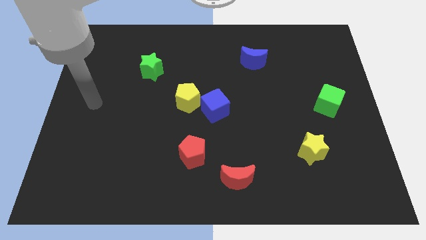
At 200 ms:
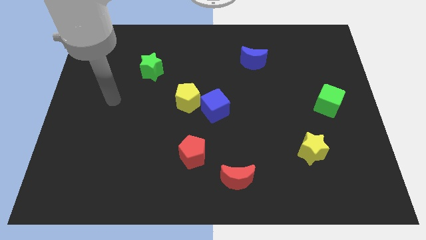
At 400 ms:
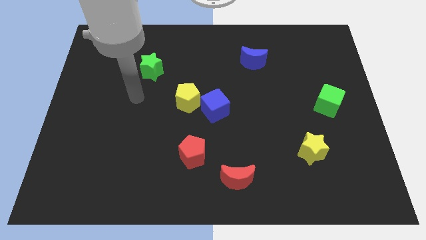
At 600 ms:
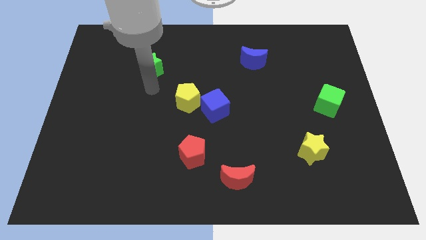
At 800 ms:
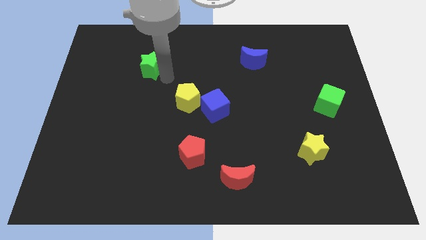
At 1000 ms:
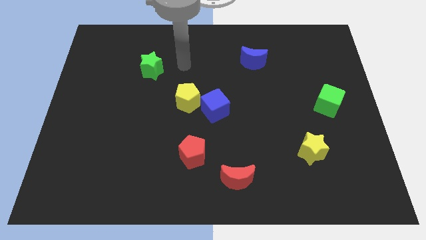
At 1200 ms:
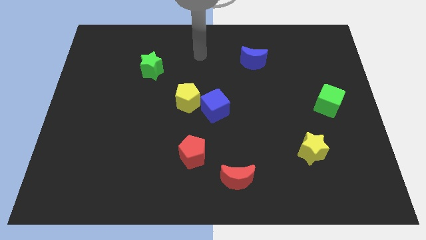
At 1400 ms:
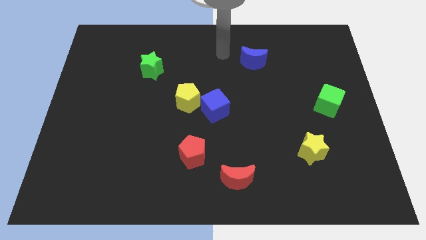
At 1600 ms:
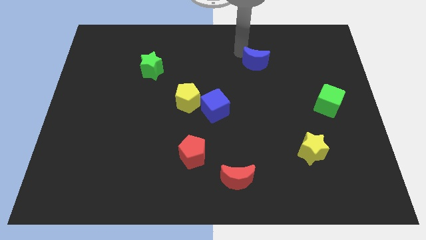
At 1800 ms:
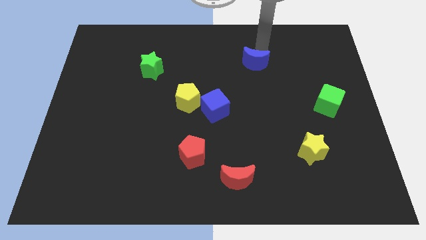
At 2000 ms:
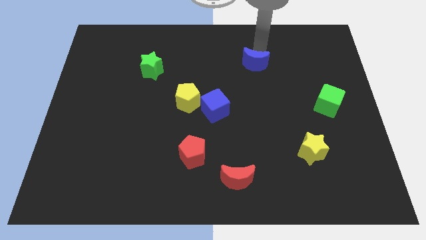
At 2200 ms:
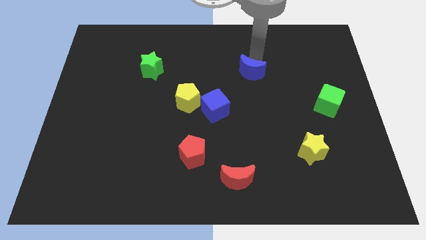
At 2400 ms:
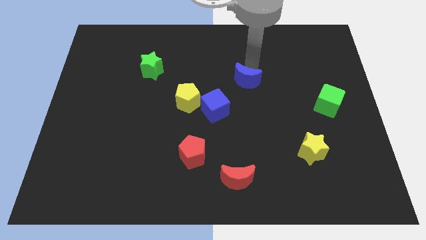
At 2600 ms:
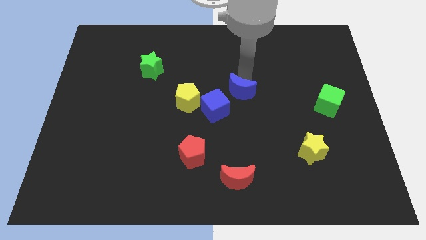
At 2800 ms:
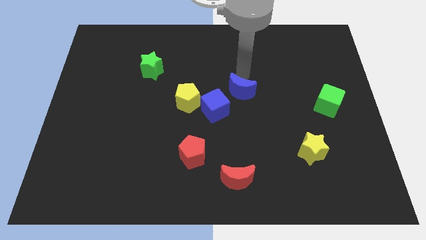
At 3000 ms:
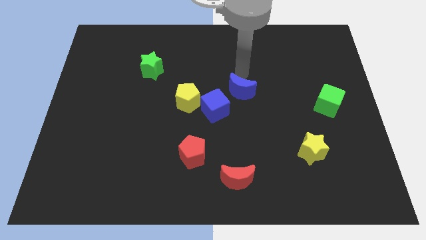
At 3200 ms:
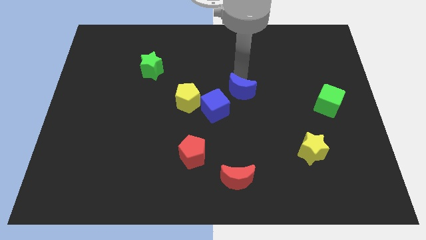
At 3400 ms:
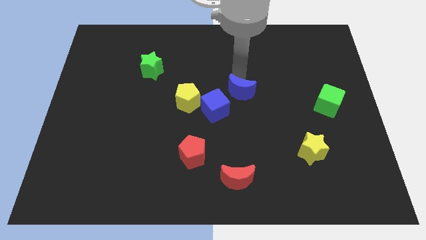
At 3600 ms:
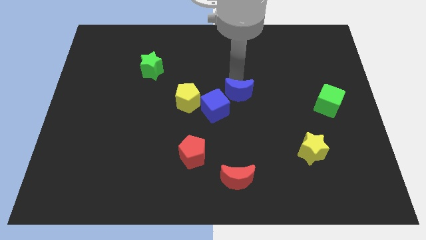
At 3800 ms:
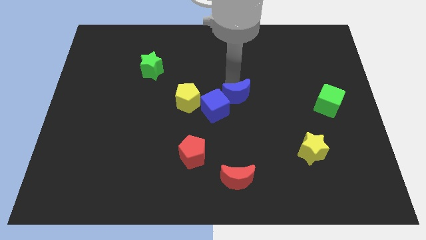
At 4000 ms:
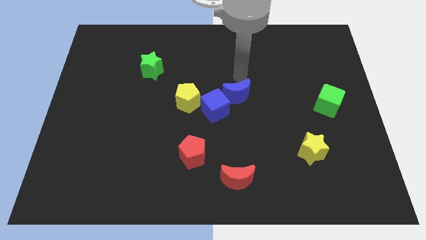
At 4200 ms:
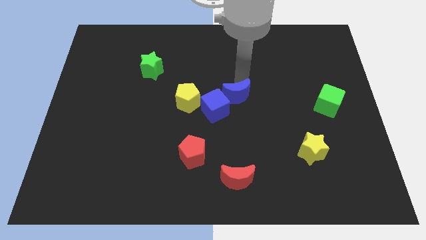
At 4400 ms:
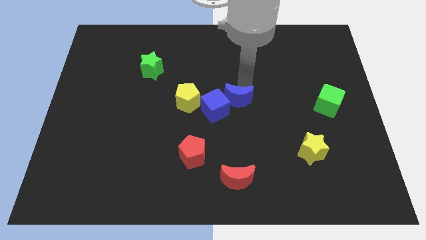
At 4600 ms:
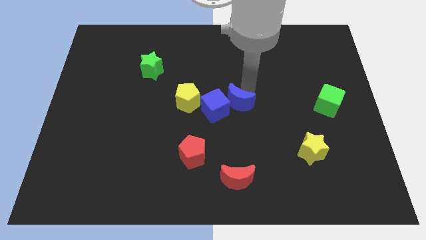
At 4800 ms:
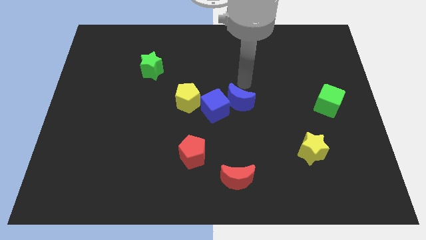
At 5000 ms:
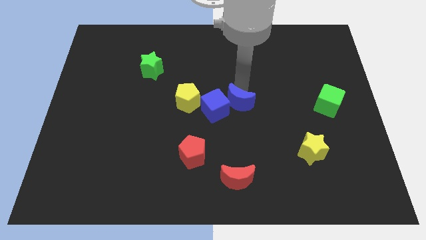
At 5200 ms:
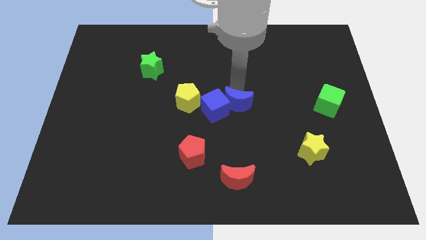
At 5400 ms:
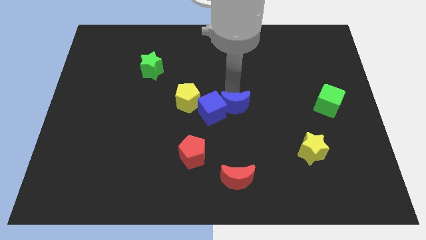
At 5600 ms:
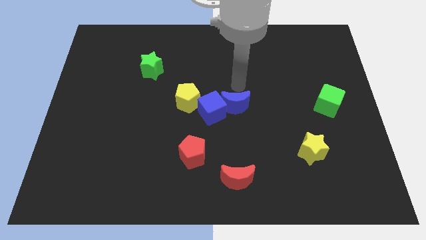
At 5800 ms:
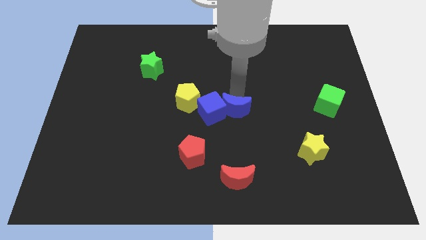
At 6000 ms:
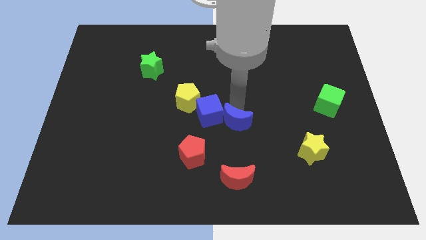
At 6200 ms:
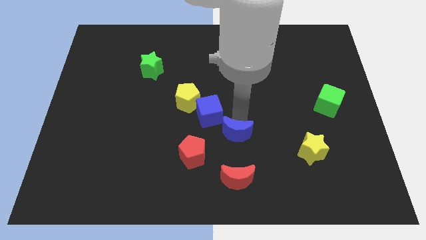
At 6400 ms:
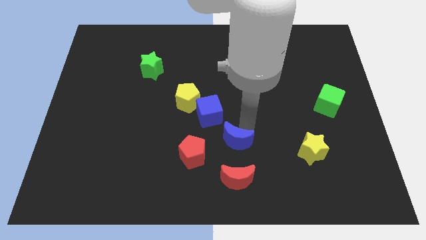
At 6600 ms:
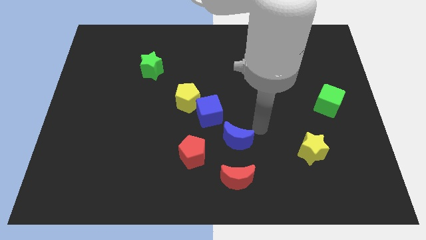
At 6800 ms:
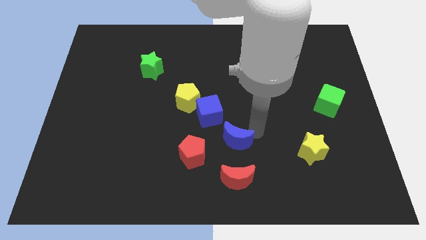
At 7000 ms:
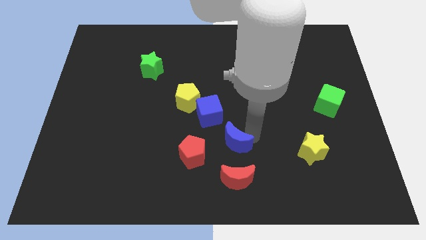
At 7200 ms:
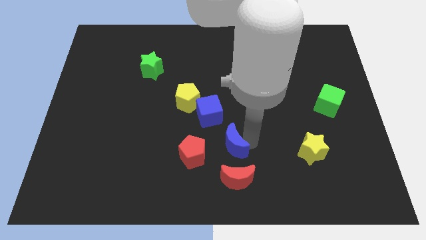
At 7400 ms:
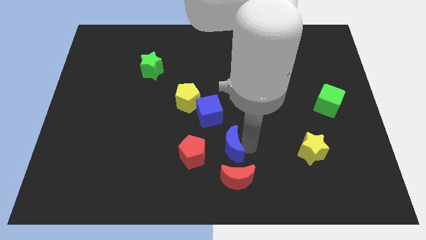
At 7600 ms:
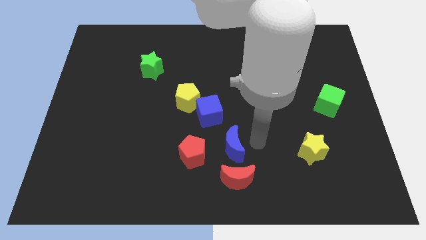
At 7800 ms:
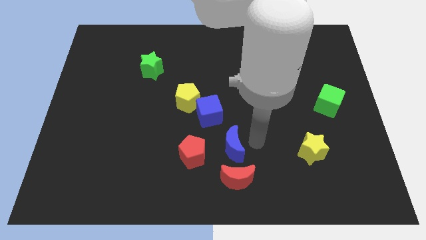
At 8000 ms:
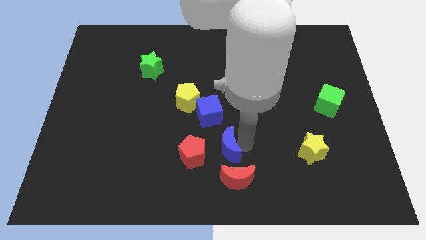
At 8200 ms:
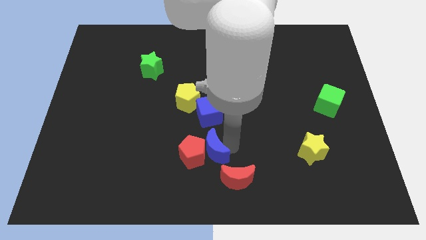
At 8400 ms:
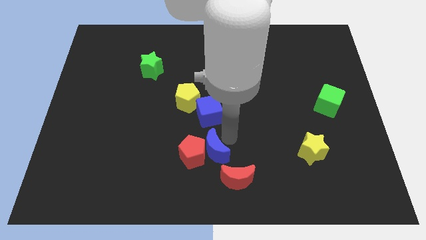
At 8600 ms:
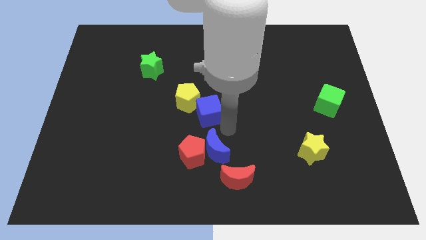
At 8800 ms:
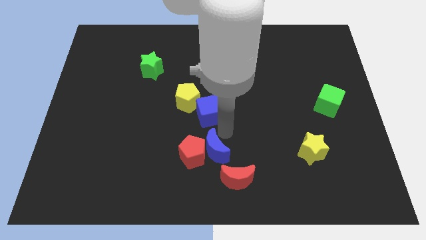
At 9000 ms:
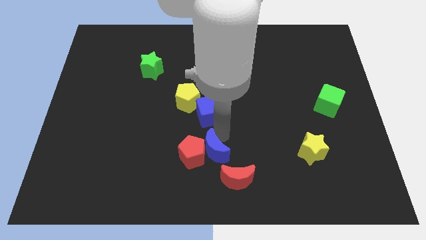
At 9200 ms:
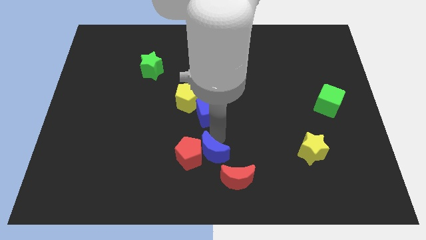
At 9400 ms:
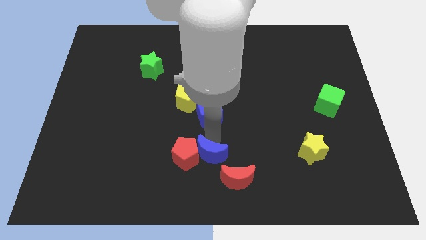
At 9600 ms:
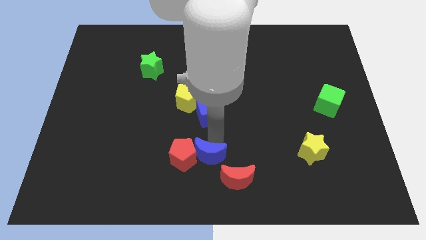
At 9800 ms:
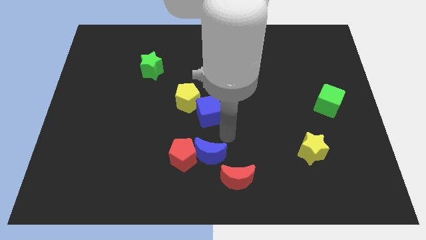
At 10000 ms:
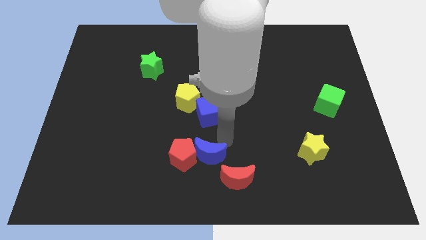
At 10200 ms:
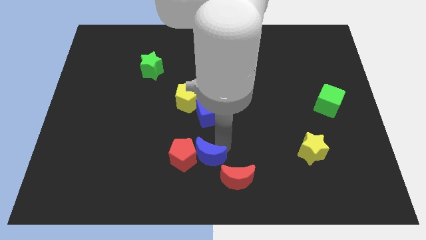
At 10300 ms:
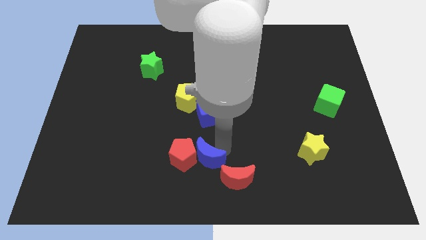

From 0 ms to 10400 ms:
move the blue moon just left of the red moon

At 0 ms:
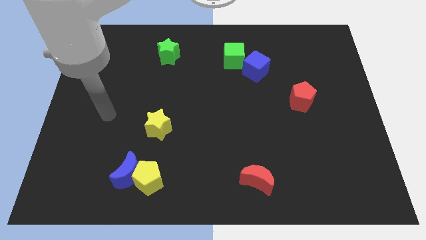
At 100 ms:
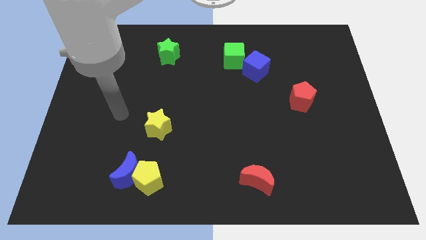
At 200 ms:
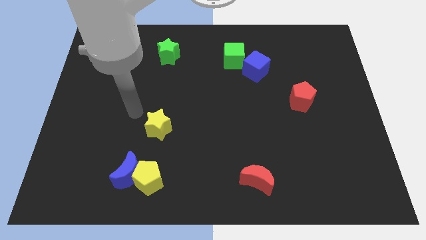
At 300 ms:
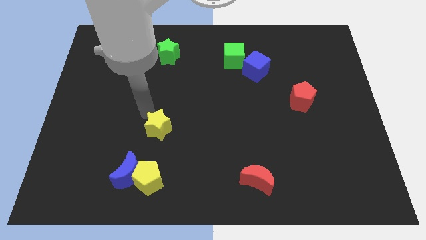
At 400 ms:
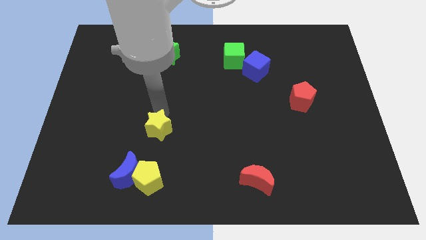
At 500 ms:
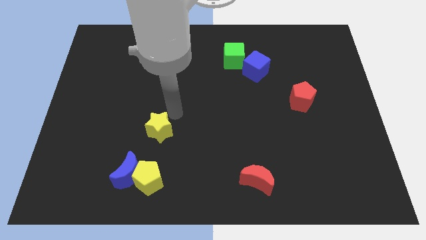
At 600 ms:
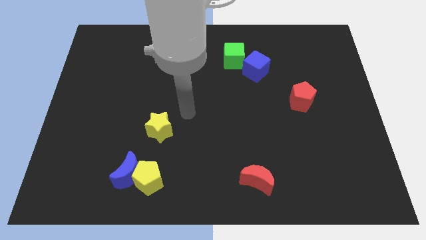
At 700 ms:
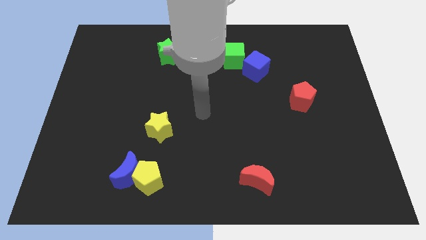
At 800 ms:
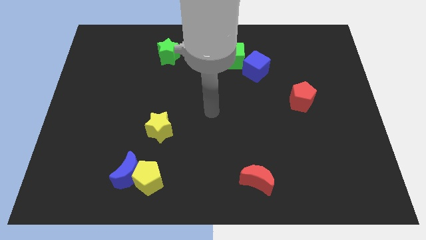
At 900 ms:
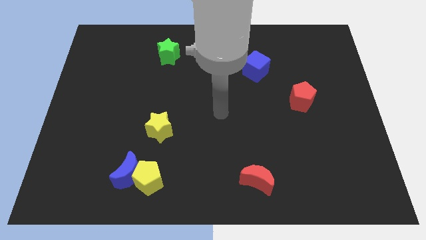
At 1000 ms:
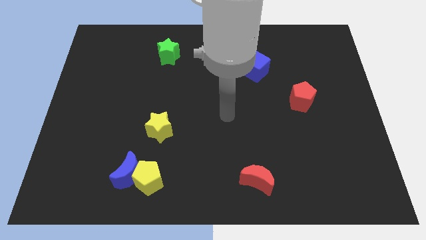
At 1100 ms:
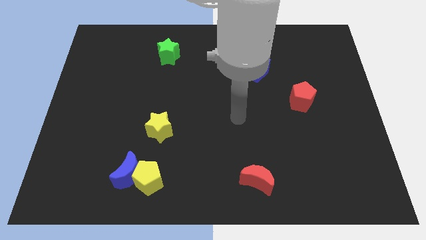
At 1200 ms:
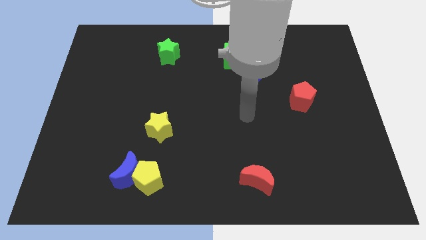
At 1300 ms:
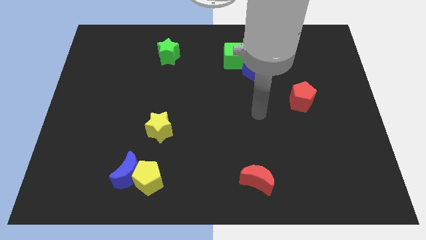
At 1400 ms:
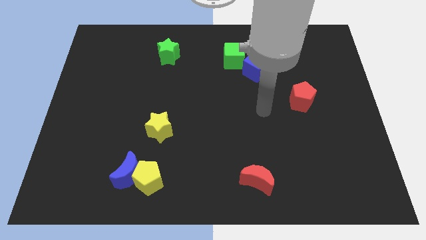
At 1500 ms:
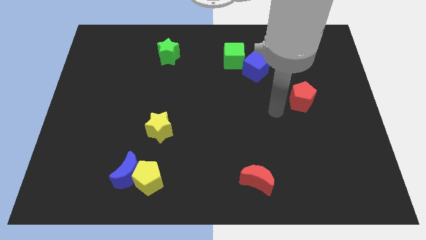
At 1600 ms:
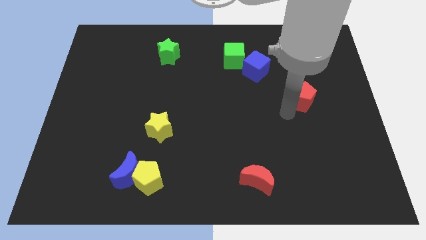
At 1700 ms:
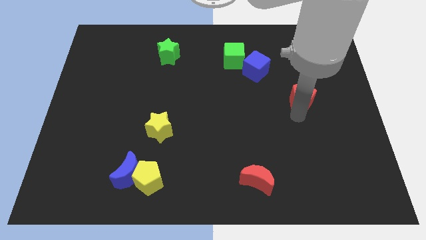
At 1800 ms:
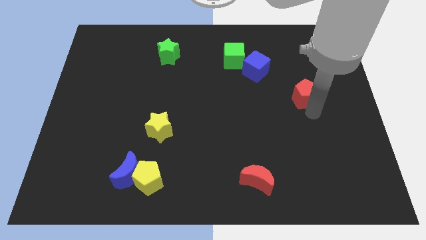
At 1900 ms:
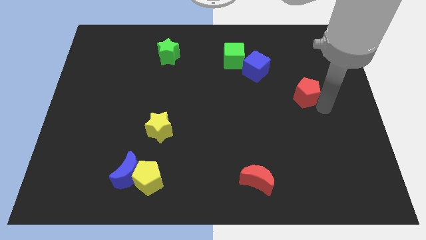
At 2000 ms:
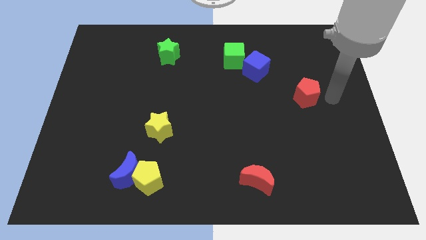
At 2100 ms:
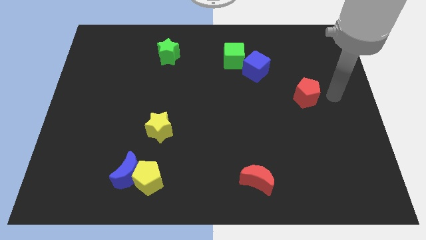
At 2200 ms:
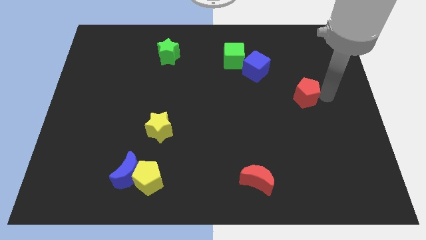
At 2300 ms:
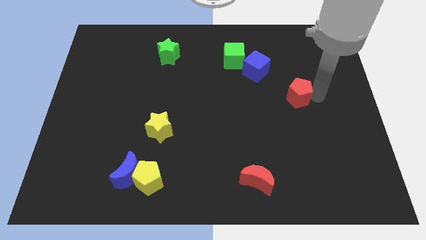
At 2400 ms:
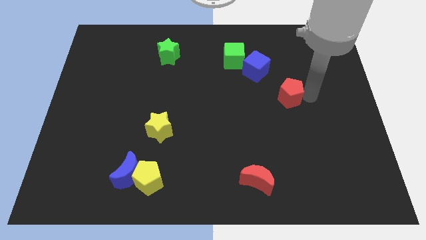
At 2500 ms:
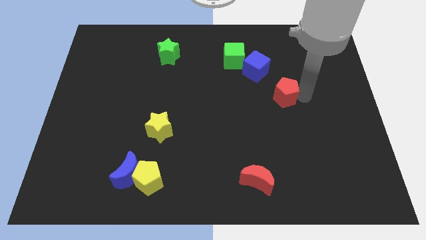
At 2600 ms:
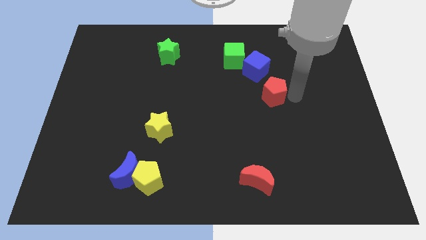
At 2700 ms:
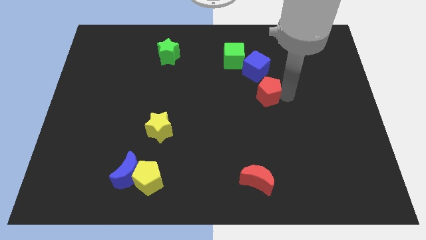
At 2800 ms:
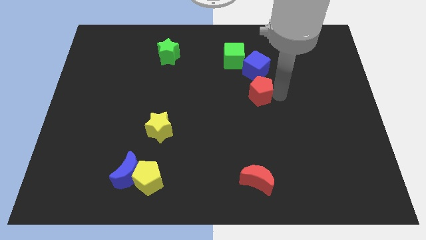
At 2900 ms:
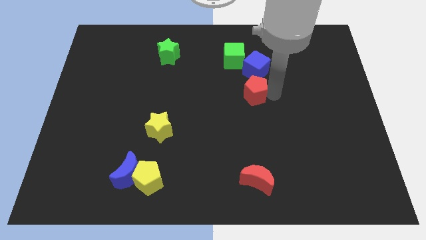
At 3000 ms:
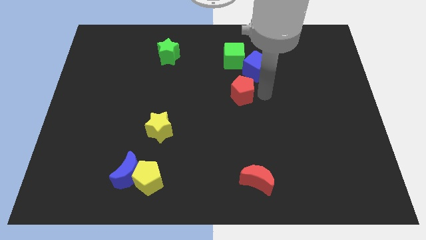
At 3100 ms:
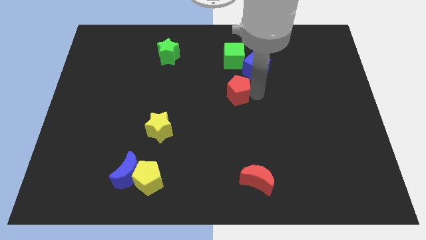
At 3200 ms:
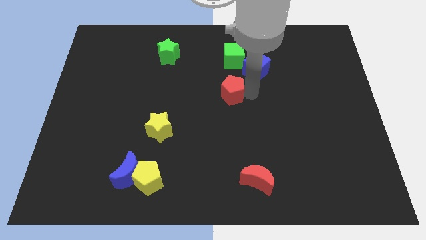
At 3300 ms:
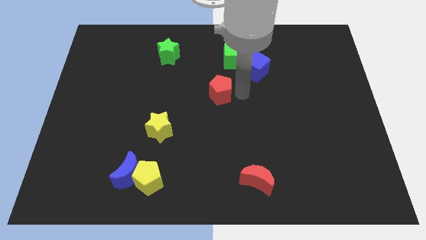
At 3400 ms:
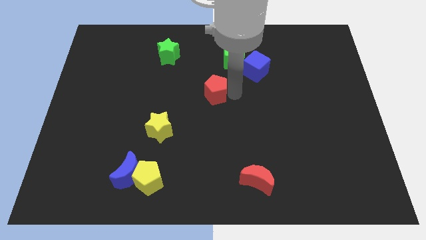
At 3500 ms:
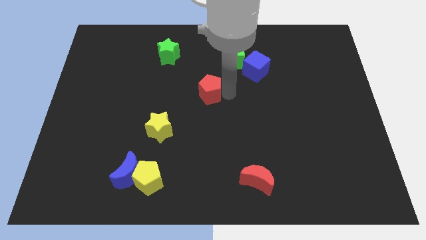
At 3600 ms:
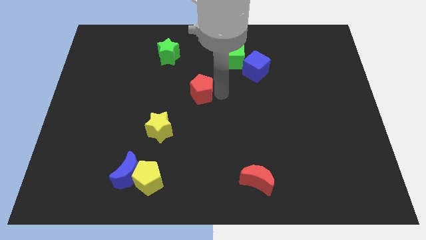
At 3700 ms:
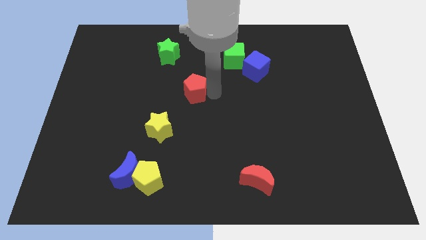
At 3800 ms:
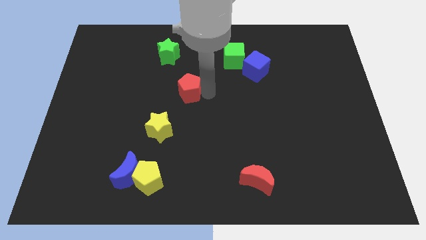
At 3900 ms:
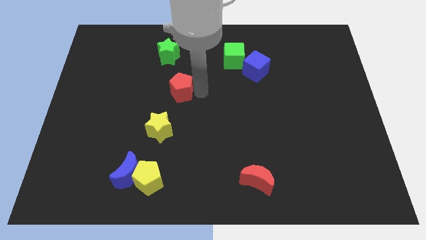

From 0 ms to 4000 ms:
put the red pentagon above the yellow star
